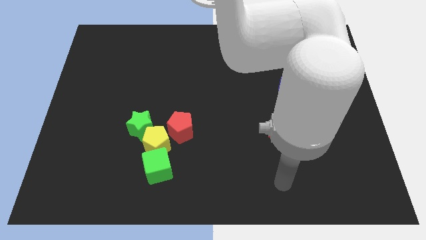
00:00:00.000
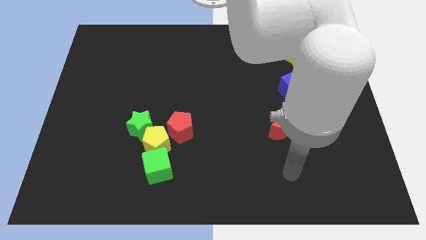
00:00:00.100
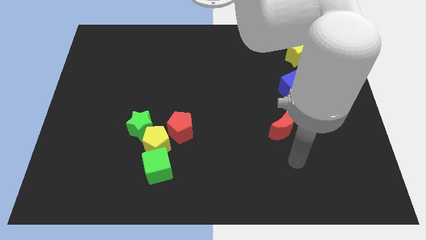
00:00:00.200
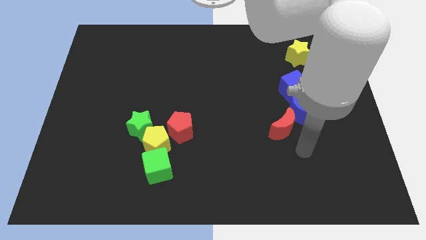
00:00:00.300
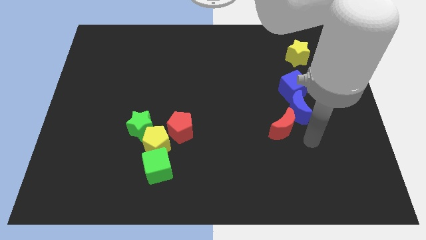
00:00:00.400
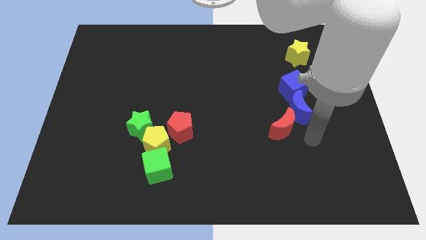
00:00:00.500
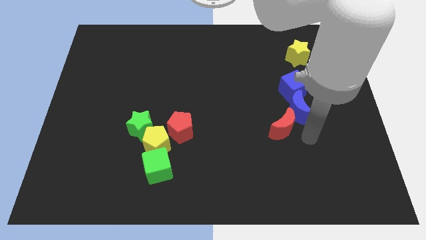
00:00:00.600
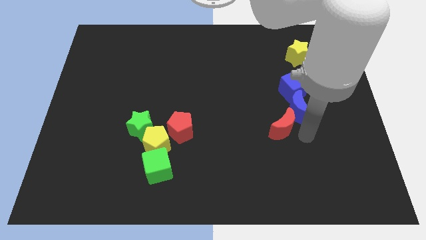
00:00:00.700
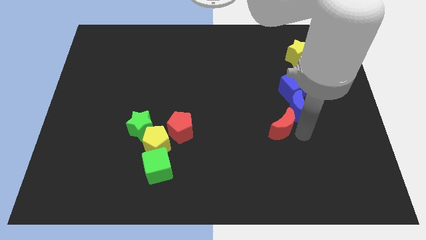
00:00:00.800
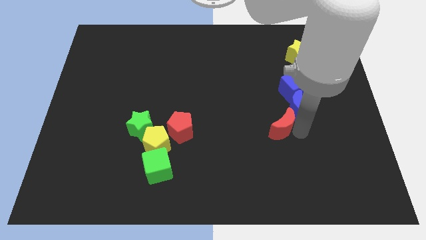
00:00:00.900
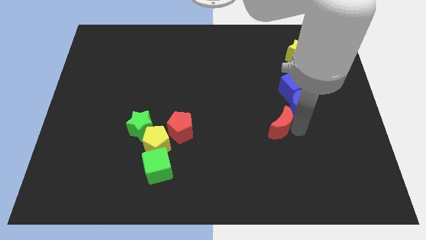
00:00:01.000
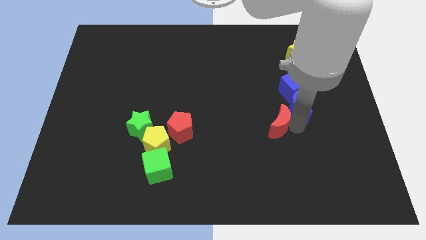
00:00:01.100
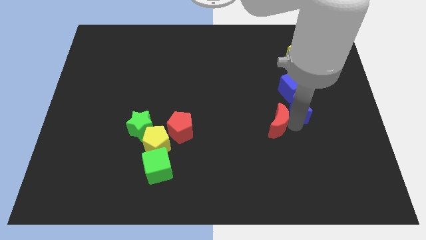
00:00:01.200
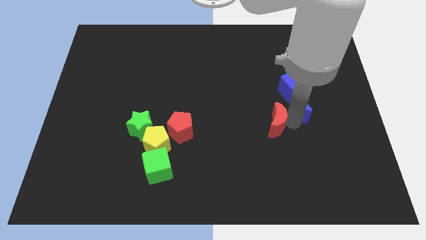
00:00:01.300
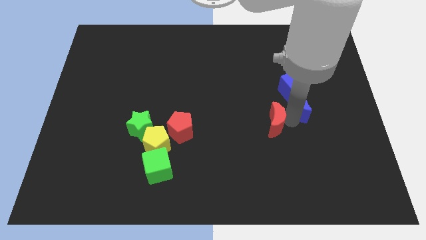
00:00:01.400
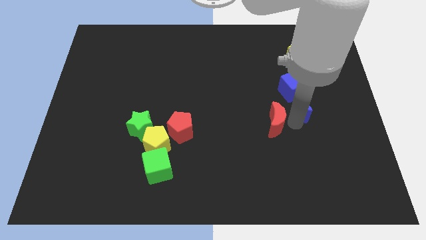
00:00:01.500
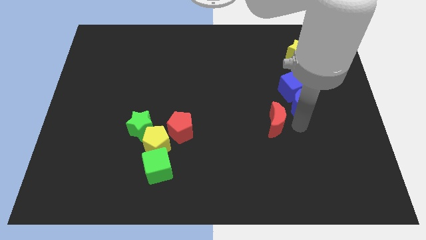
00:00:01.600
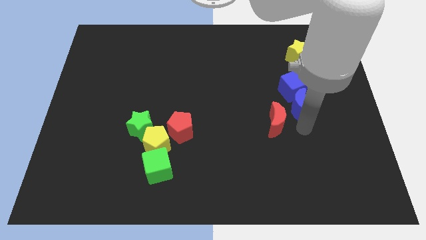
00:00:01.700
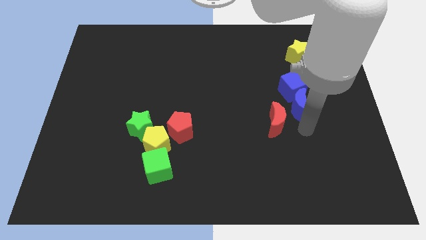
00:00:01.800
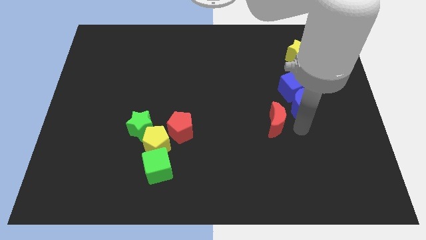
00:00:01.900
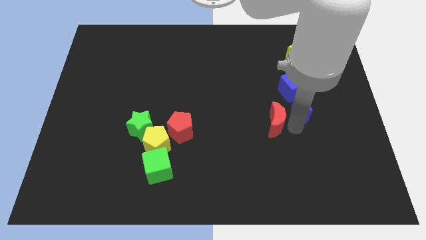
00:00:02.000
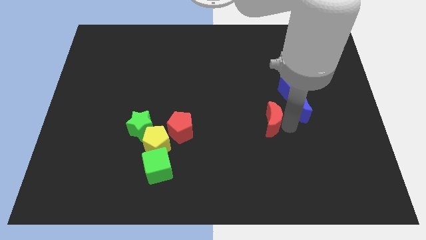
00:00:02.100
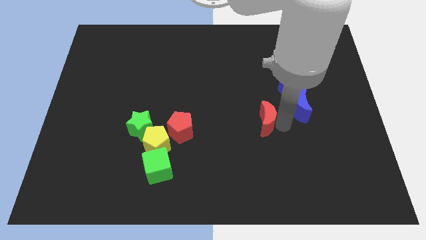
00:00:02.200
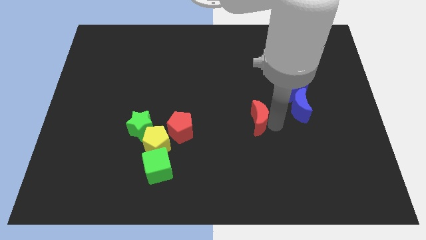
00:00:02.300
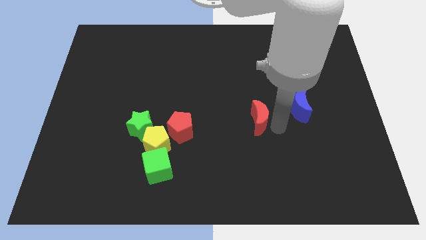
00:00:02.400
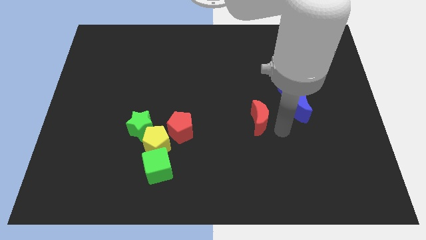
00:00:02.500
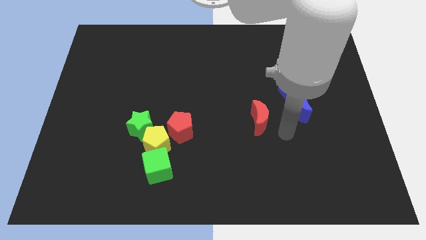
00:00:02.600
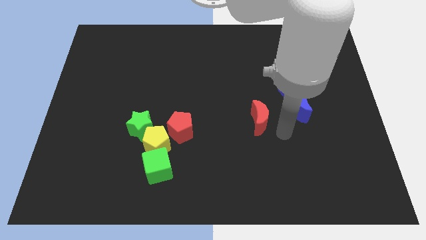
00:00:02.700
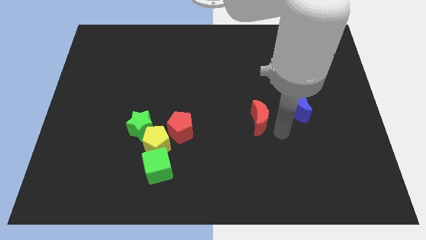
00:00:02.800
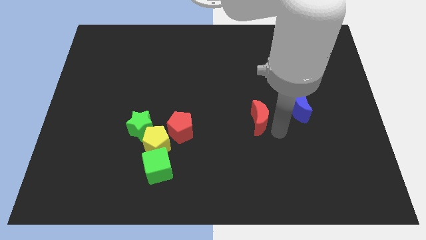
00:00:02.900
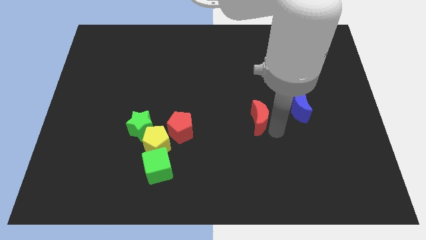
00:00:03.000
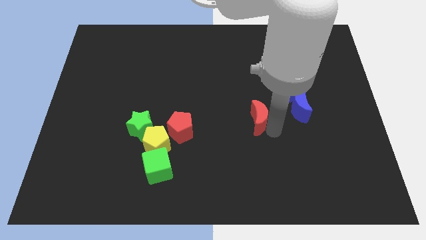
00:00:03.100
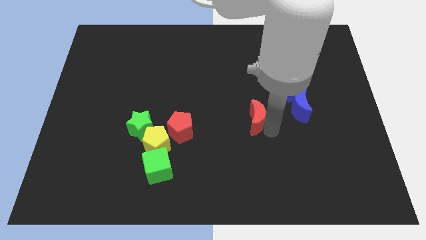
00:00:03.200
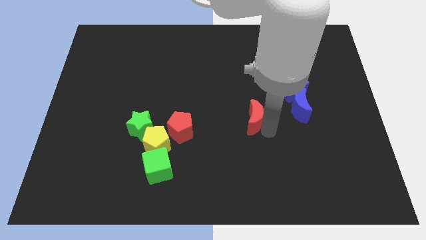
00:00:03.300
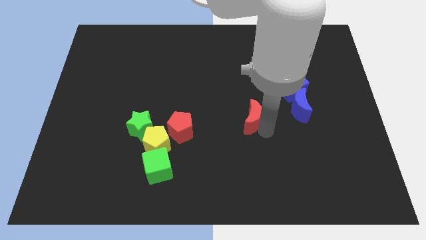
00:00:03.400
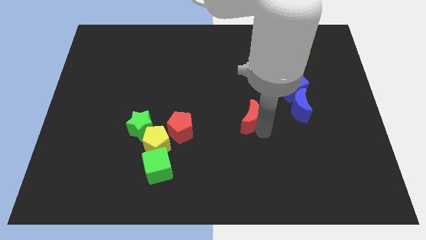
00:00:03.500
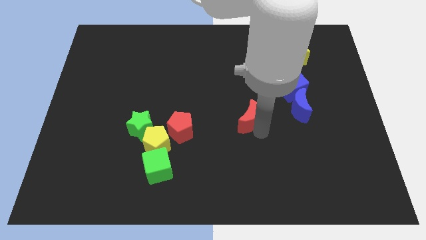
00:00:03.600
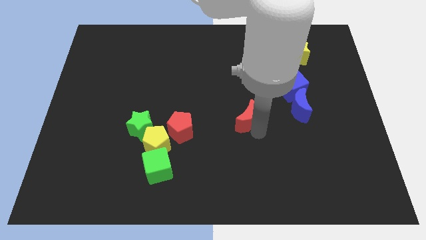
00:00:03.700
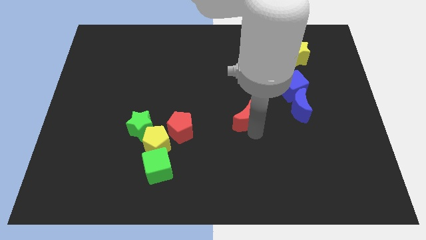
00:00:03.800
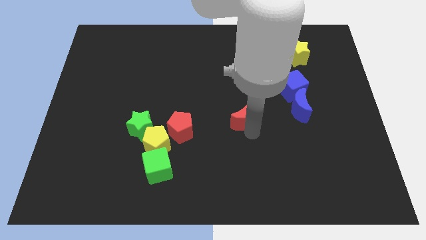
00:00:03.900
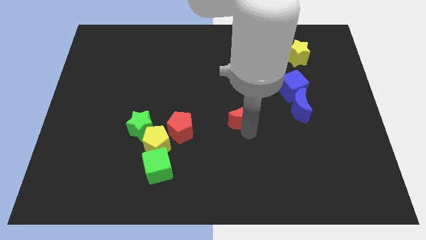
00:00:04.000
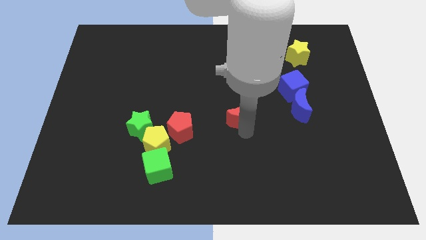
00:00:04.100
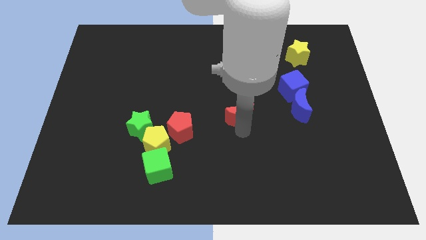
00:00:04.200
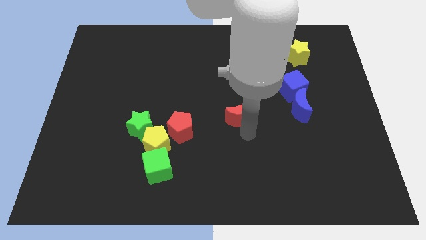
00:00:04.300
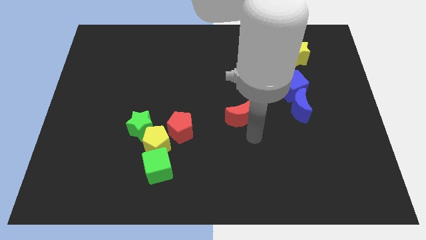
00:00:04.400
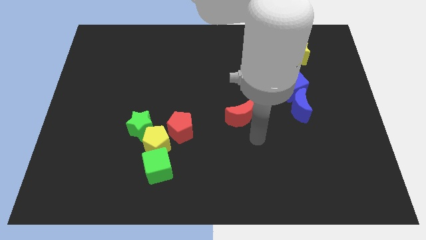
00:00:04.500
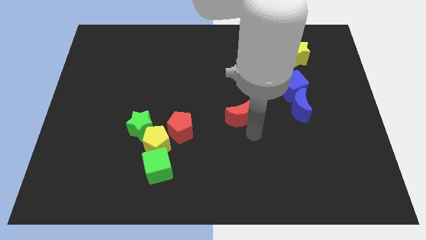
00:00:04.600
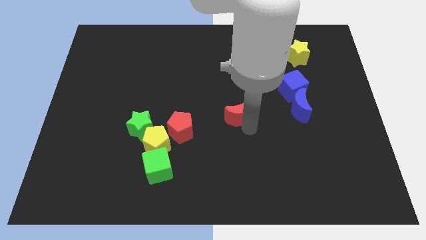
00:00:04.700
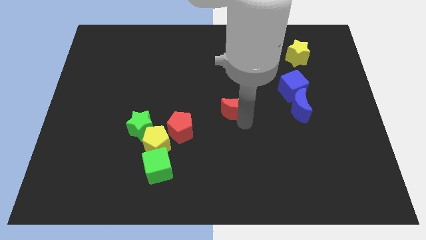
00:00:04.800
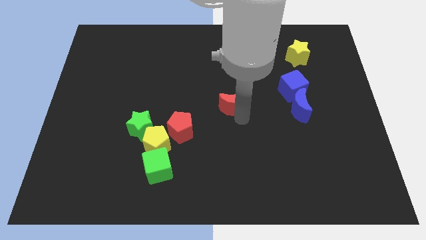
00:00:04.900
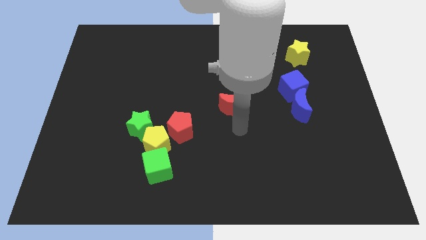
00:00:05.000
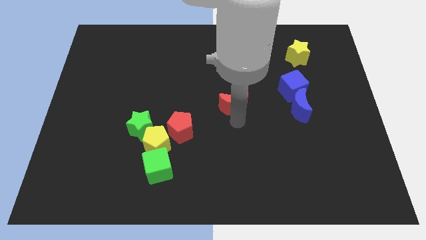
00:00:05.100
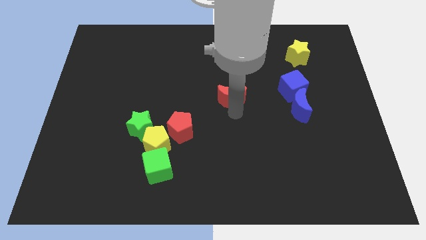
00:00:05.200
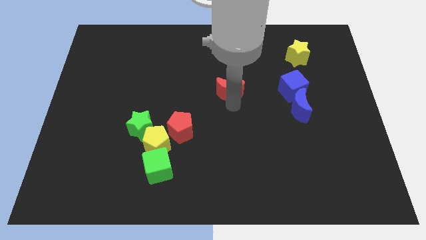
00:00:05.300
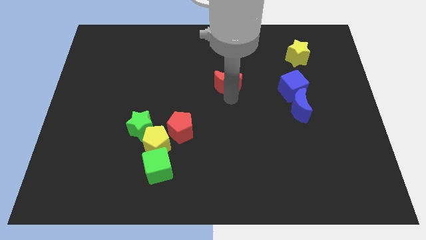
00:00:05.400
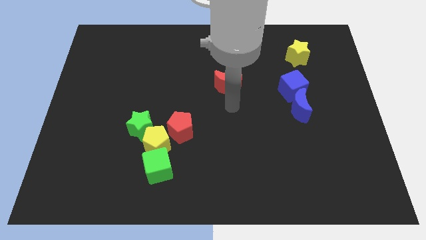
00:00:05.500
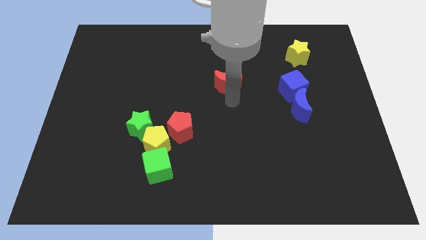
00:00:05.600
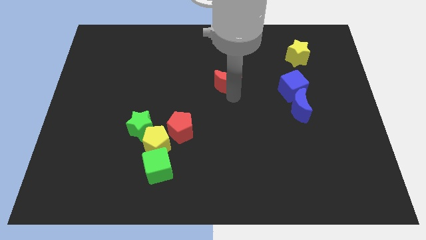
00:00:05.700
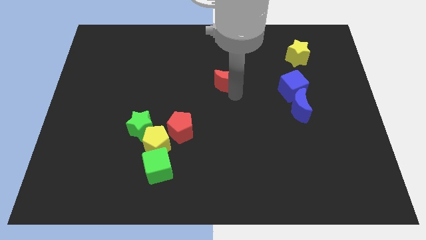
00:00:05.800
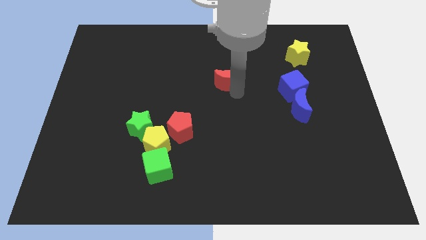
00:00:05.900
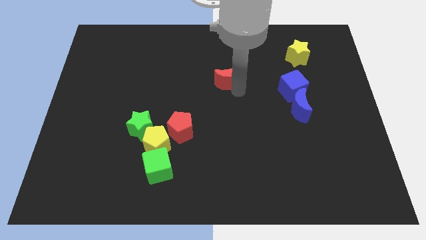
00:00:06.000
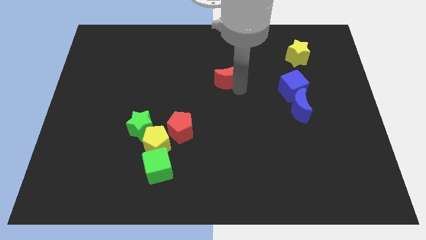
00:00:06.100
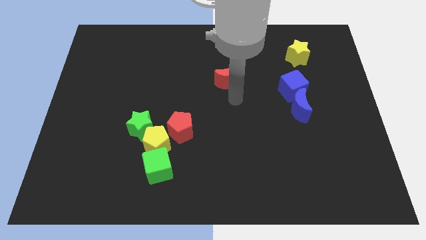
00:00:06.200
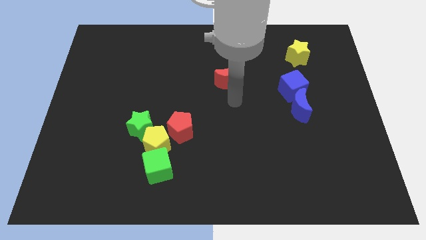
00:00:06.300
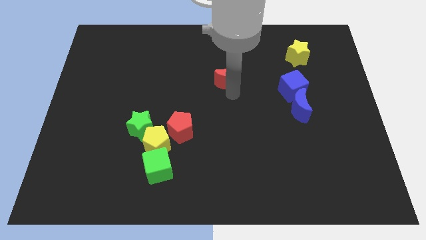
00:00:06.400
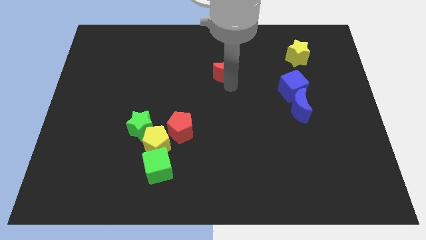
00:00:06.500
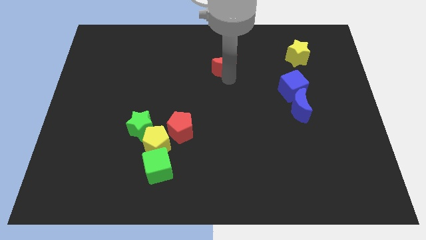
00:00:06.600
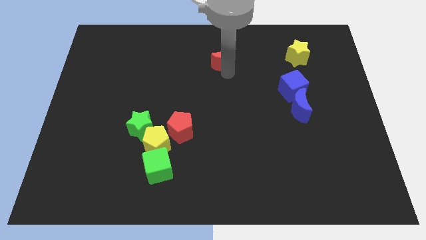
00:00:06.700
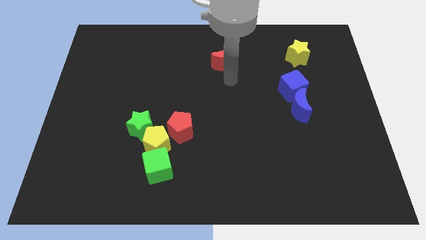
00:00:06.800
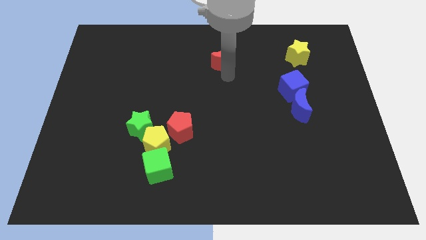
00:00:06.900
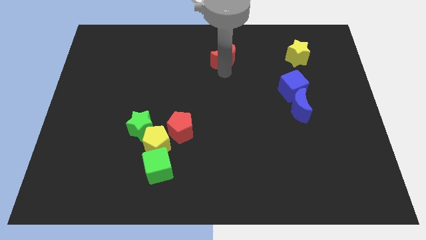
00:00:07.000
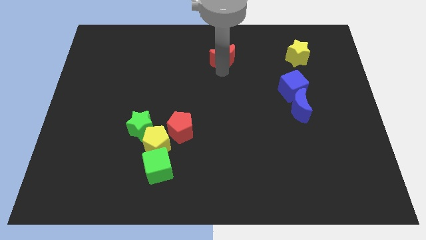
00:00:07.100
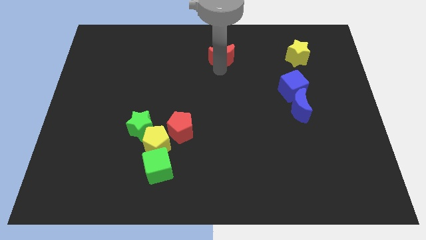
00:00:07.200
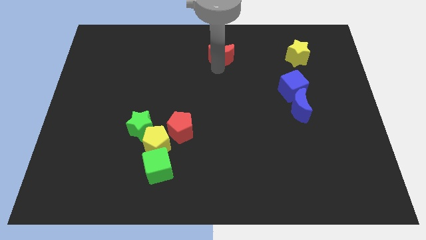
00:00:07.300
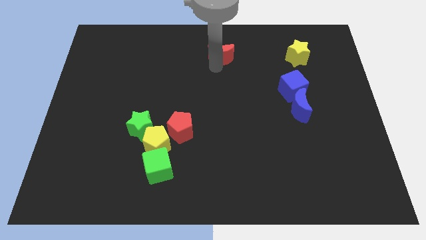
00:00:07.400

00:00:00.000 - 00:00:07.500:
slide the red moon to the towards your base
